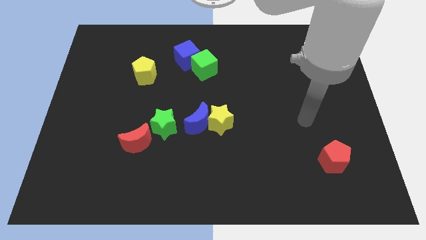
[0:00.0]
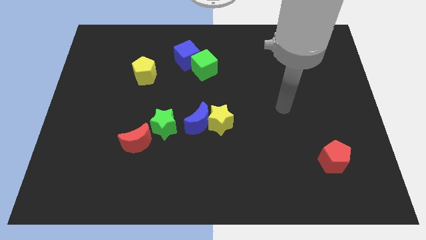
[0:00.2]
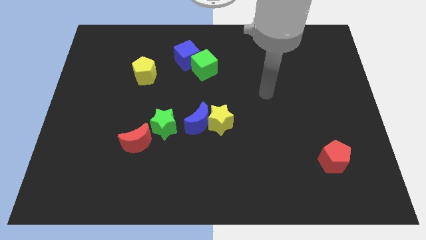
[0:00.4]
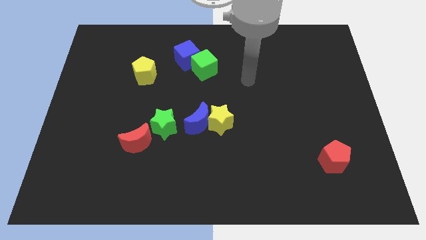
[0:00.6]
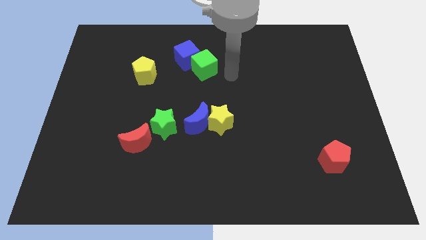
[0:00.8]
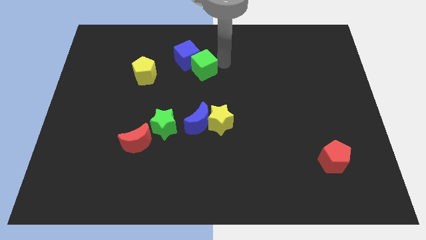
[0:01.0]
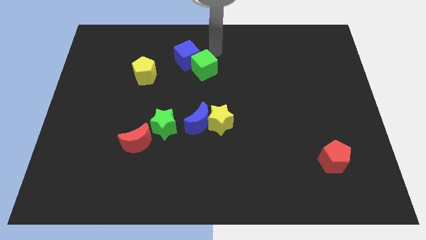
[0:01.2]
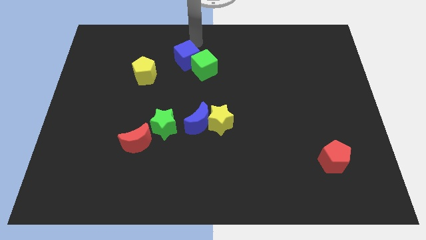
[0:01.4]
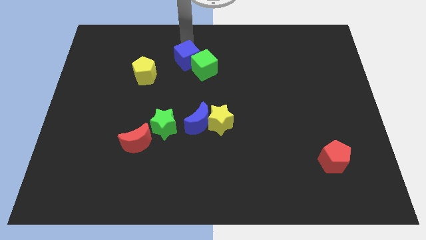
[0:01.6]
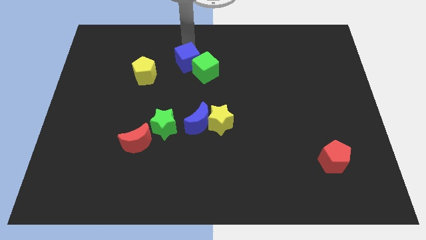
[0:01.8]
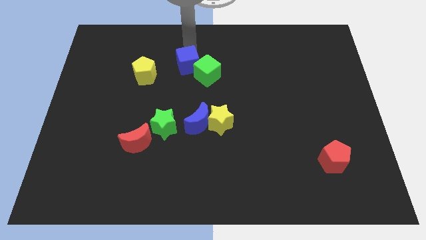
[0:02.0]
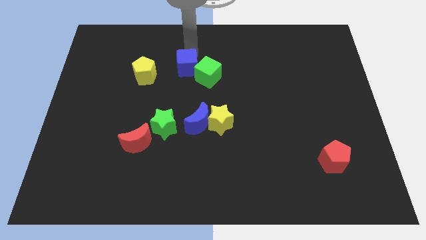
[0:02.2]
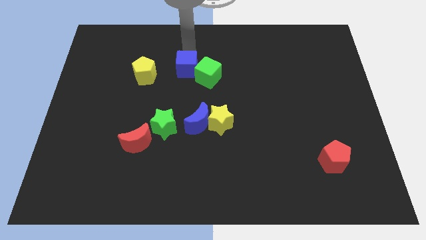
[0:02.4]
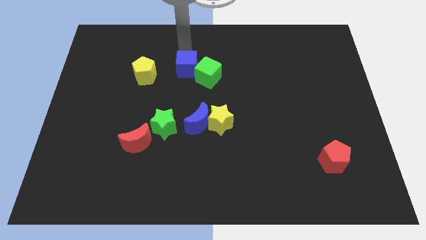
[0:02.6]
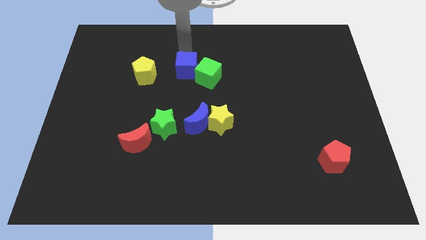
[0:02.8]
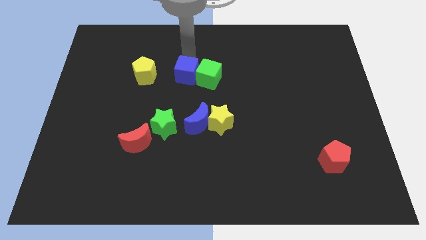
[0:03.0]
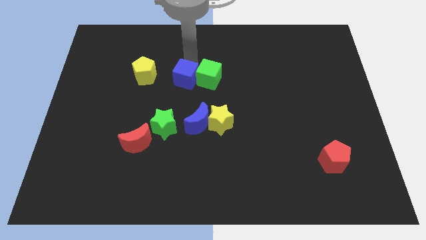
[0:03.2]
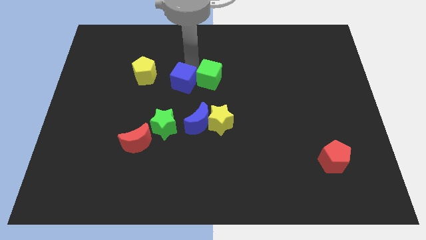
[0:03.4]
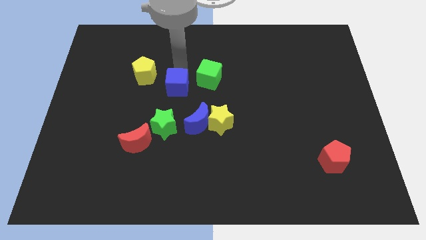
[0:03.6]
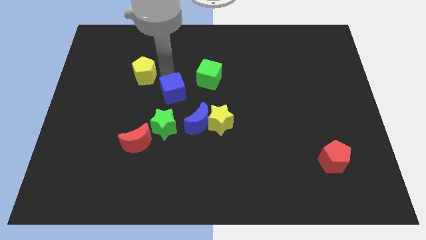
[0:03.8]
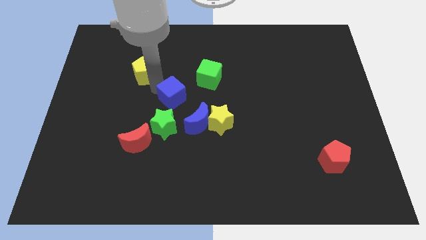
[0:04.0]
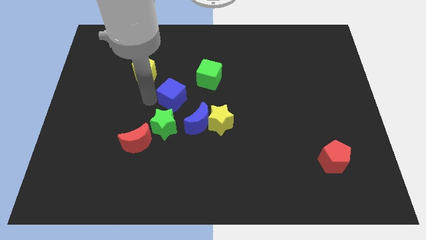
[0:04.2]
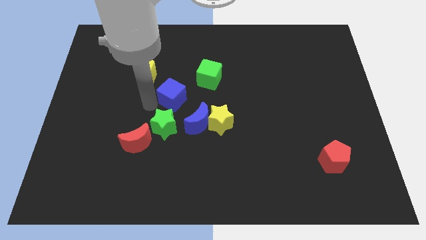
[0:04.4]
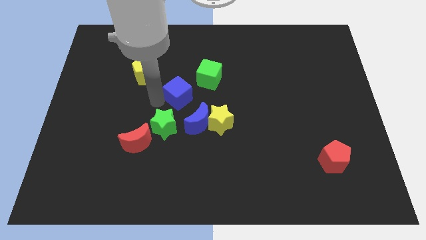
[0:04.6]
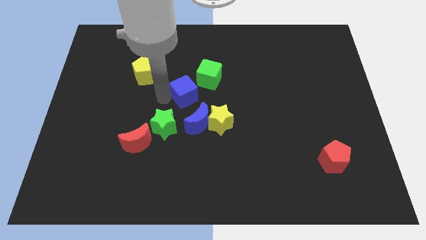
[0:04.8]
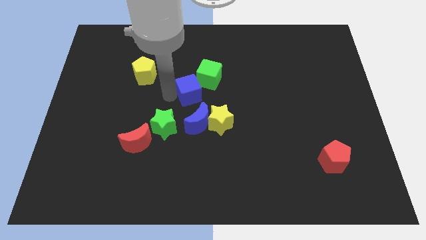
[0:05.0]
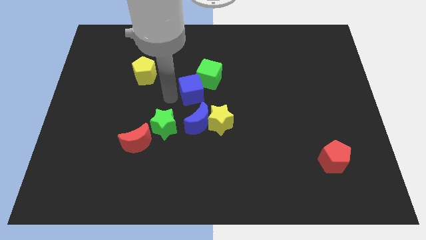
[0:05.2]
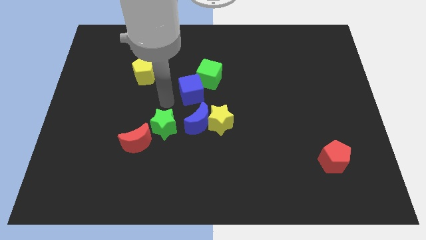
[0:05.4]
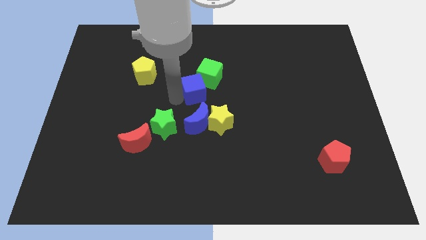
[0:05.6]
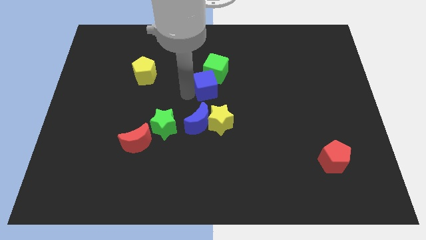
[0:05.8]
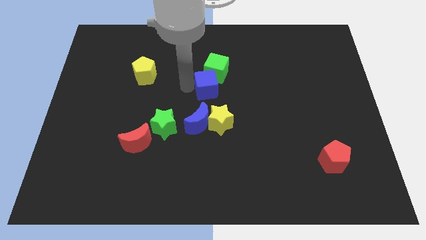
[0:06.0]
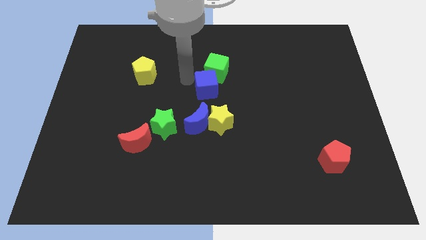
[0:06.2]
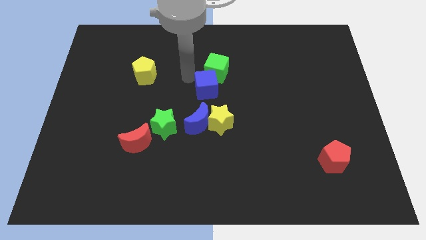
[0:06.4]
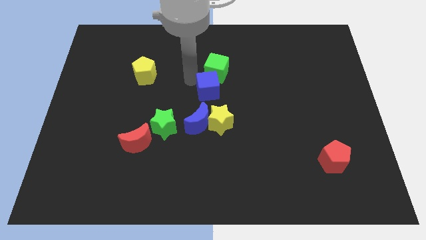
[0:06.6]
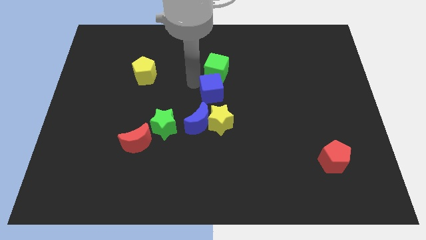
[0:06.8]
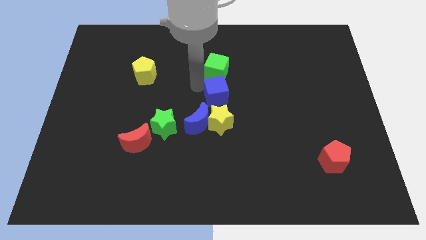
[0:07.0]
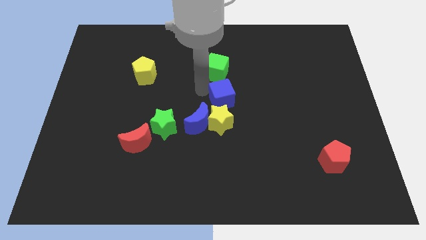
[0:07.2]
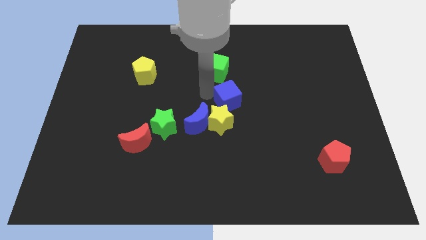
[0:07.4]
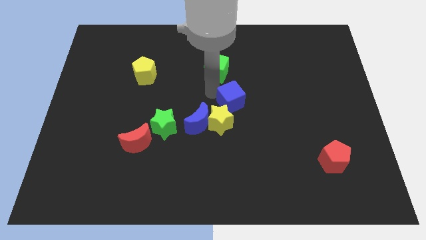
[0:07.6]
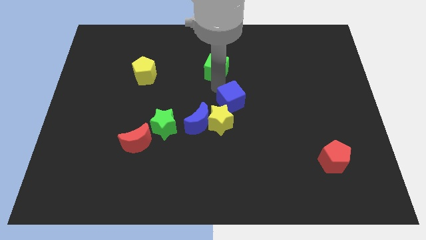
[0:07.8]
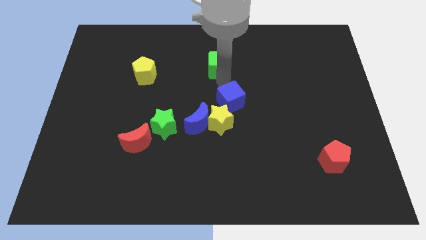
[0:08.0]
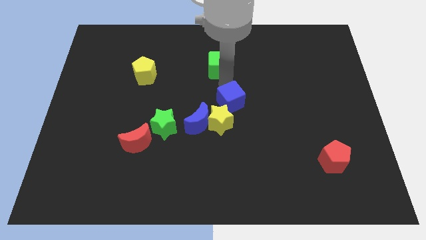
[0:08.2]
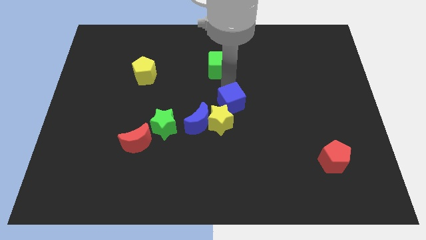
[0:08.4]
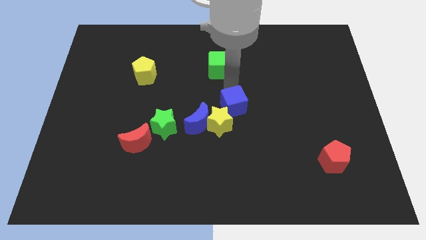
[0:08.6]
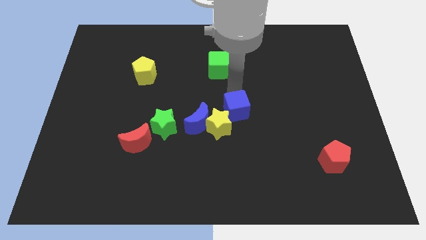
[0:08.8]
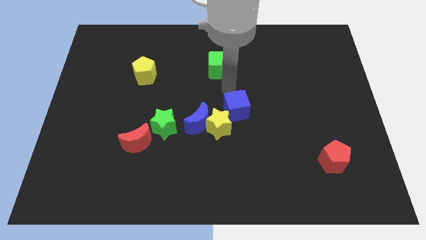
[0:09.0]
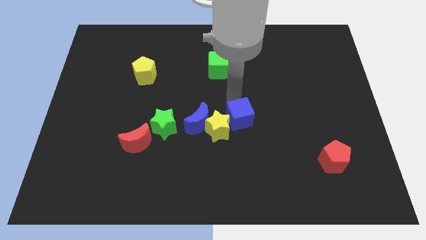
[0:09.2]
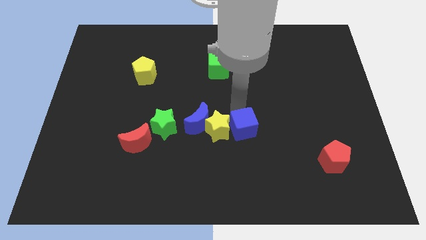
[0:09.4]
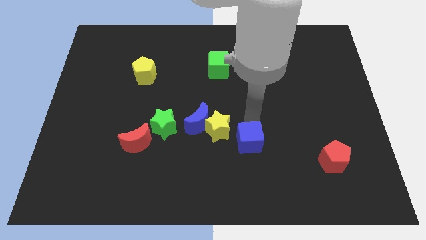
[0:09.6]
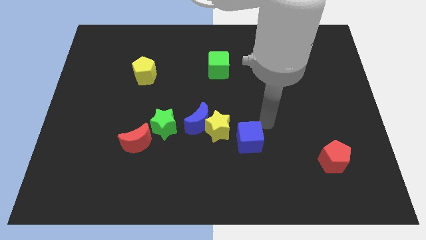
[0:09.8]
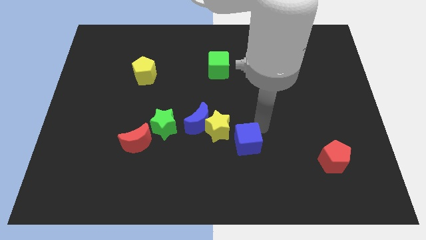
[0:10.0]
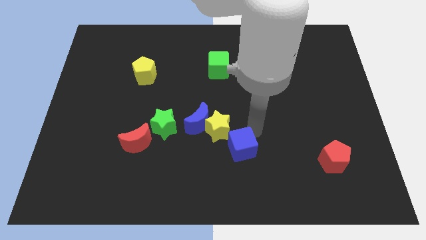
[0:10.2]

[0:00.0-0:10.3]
move the blue cube to the bottom of the yellow star

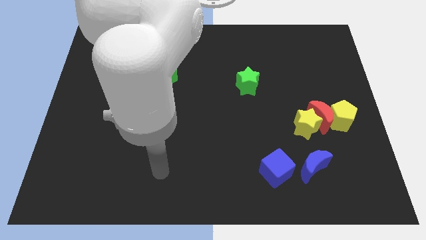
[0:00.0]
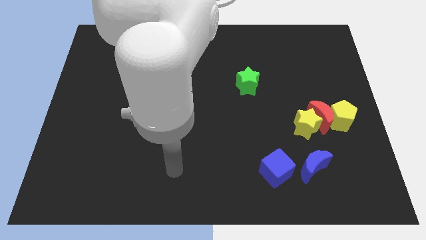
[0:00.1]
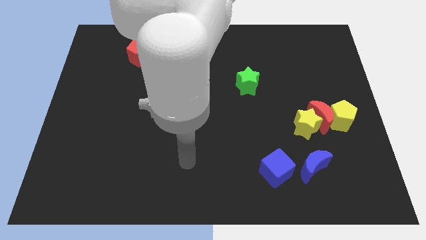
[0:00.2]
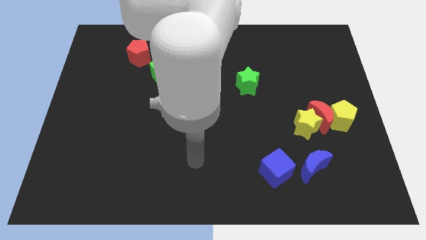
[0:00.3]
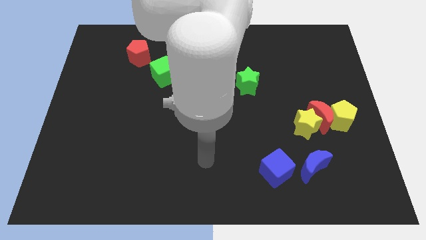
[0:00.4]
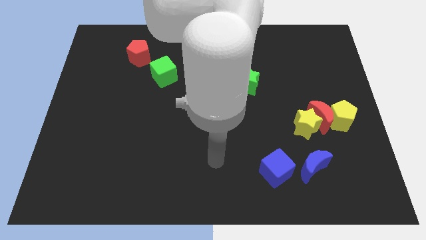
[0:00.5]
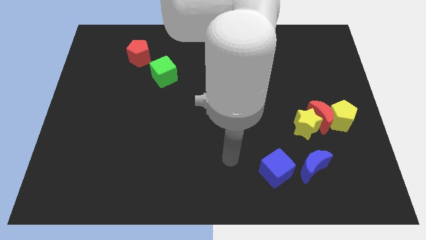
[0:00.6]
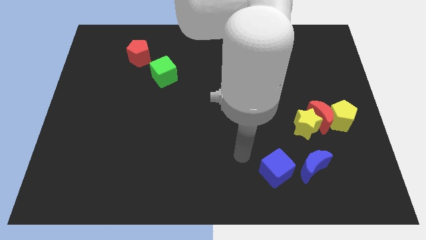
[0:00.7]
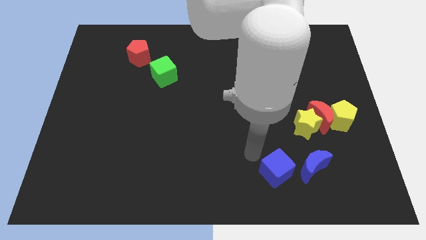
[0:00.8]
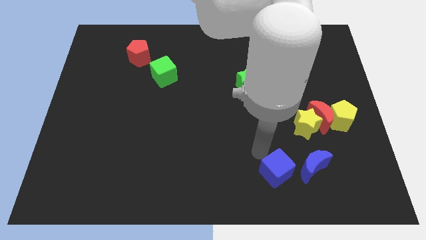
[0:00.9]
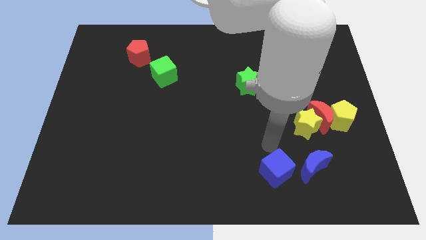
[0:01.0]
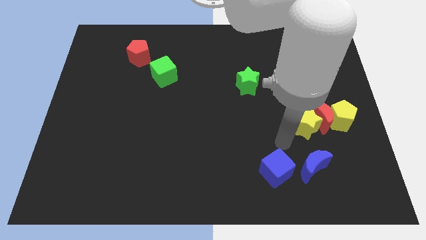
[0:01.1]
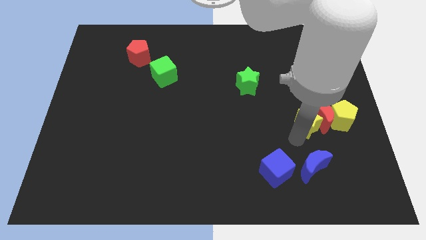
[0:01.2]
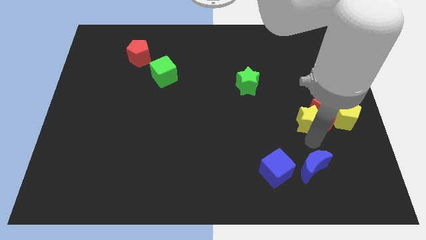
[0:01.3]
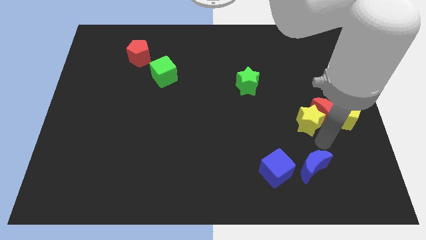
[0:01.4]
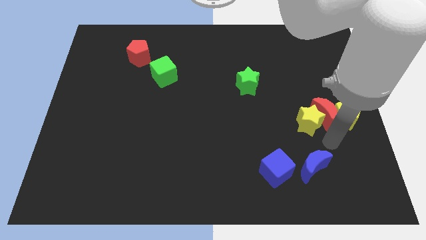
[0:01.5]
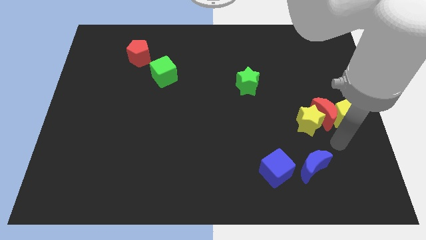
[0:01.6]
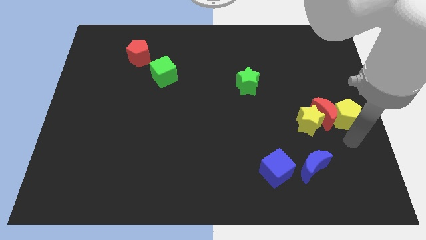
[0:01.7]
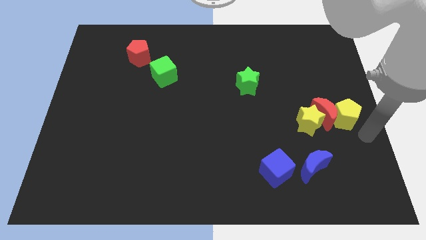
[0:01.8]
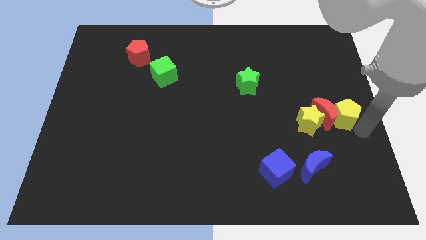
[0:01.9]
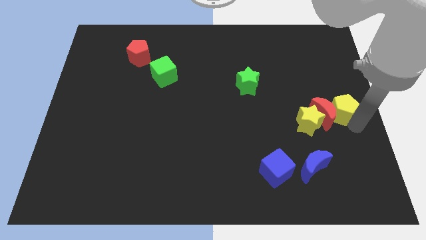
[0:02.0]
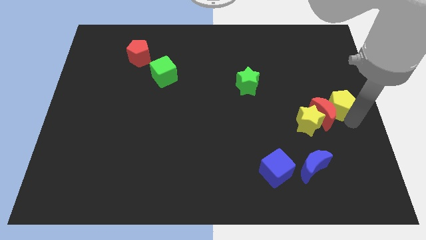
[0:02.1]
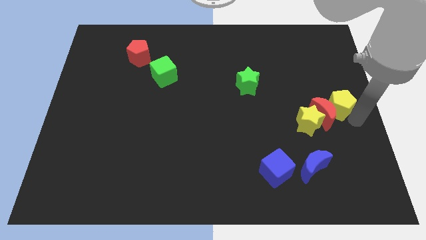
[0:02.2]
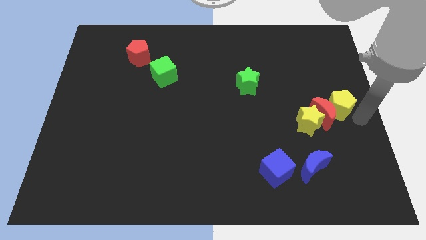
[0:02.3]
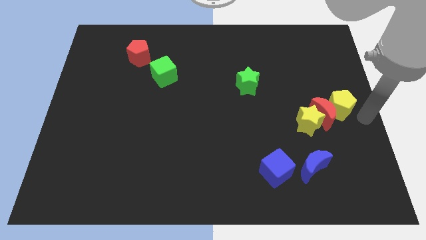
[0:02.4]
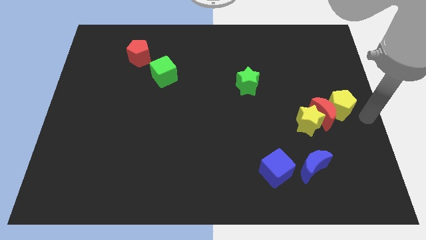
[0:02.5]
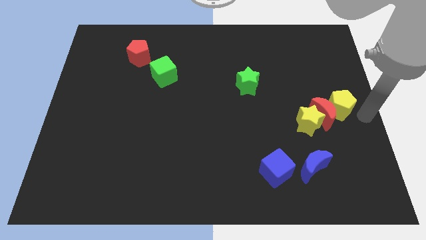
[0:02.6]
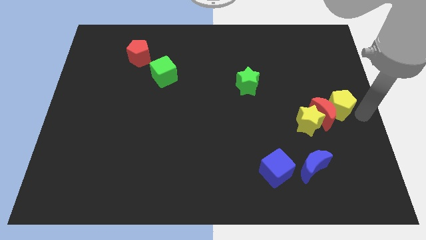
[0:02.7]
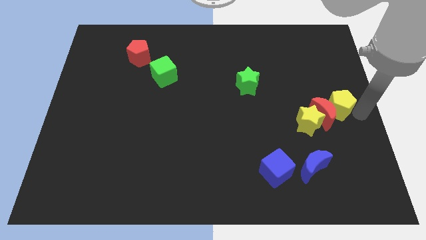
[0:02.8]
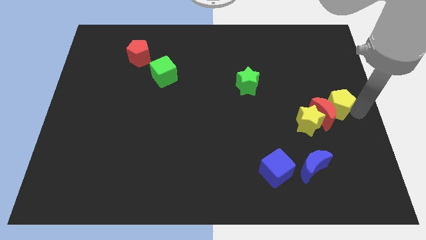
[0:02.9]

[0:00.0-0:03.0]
push the yellow pentagon to the top of the red moon

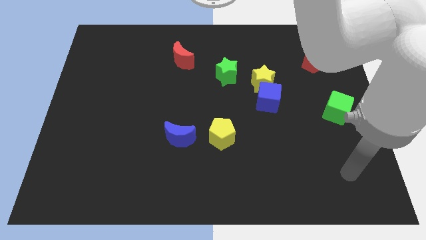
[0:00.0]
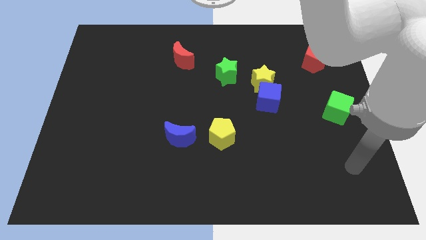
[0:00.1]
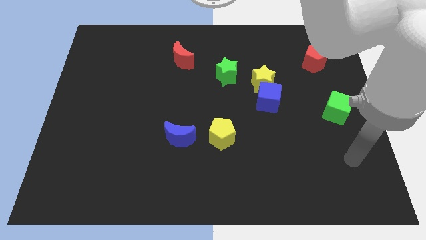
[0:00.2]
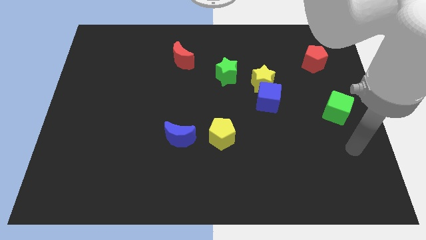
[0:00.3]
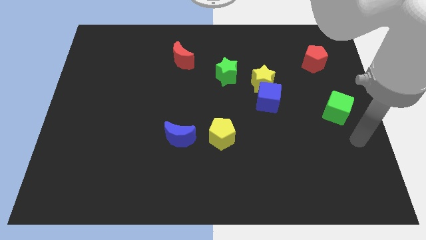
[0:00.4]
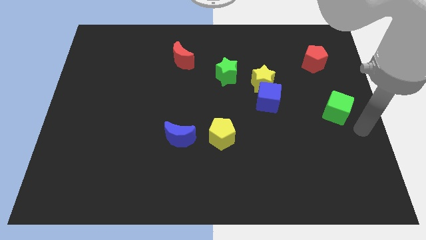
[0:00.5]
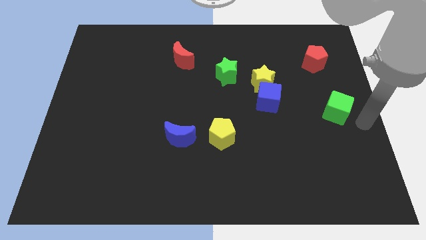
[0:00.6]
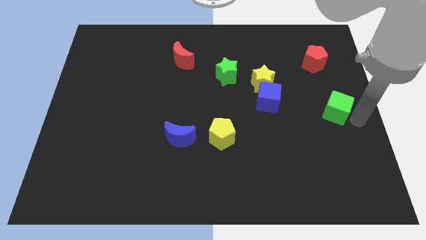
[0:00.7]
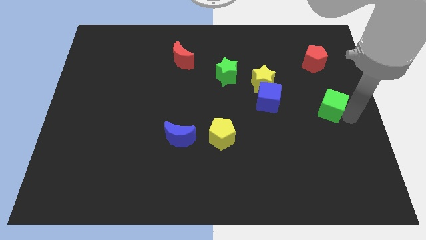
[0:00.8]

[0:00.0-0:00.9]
move the green cube to the right side of the blue cube
